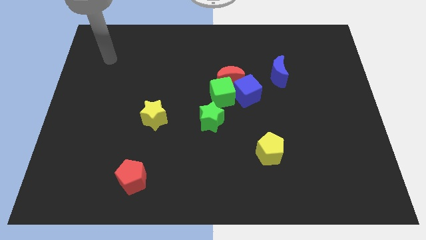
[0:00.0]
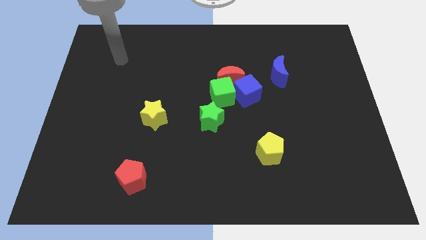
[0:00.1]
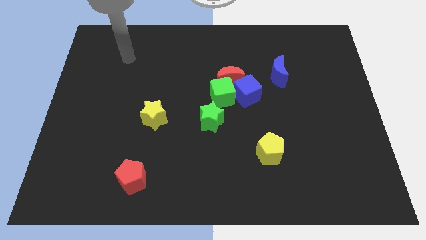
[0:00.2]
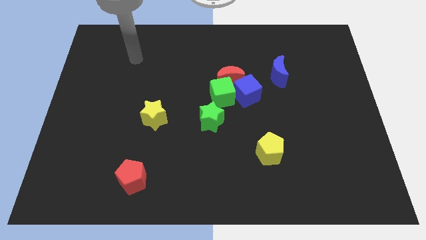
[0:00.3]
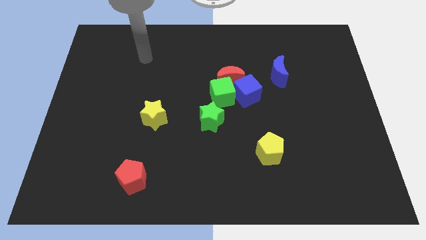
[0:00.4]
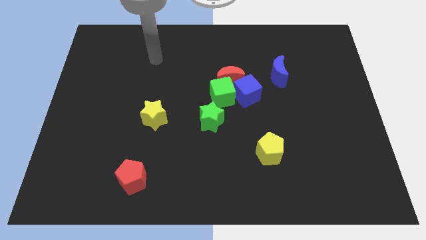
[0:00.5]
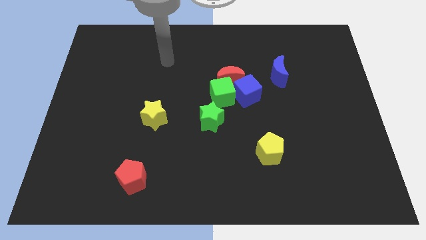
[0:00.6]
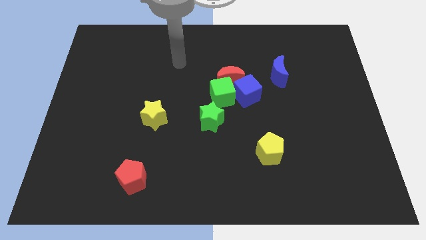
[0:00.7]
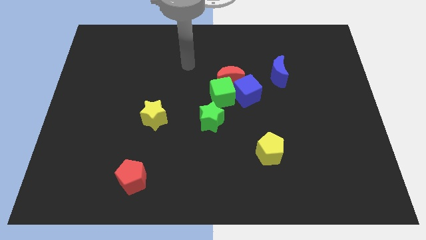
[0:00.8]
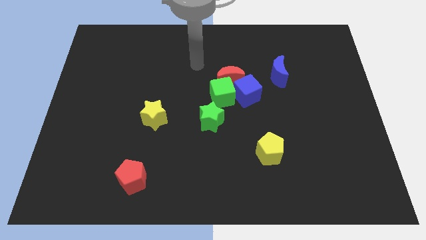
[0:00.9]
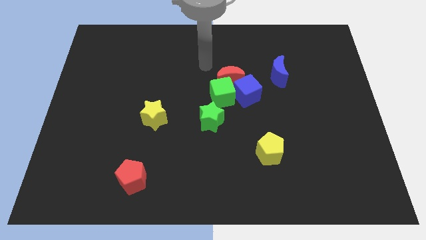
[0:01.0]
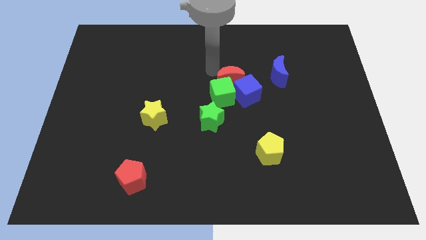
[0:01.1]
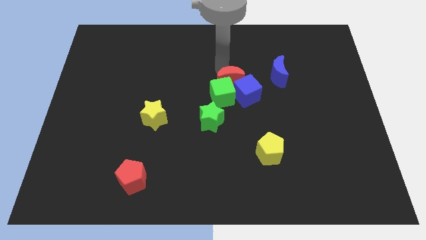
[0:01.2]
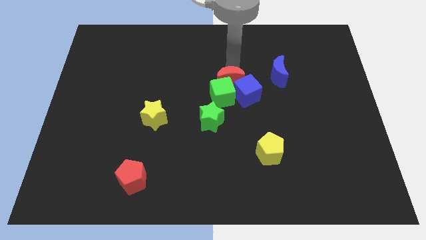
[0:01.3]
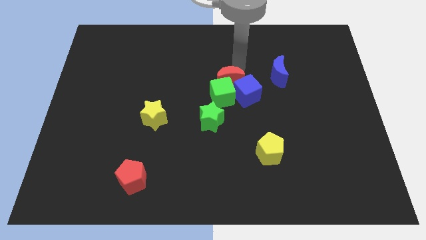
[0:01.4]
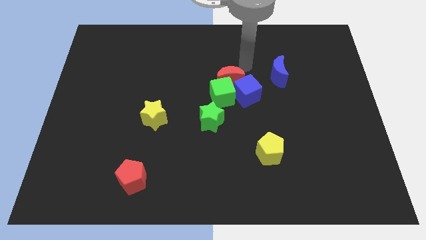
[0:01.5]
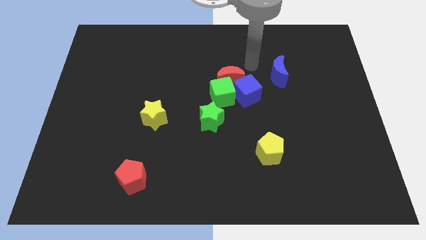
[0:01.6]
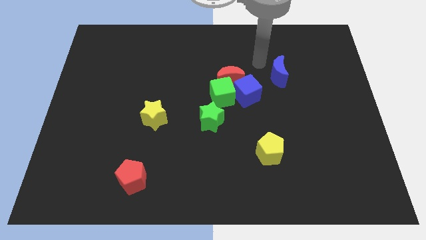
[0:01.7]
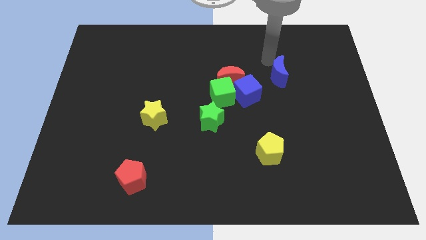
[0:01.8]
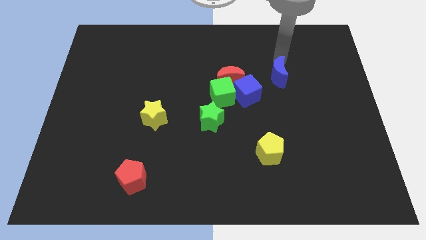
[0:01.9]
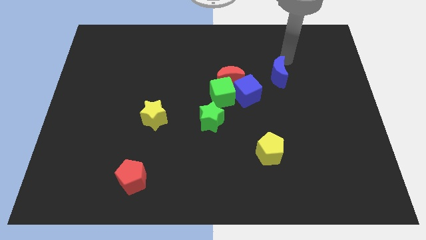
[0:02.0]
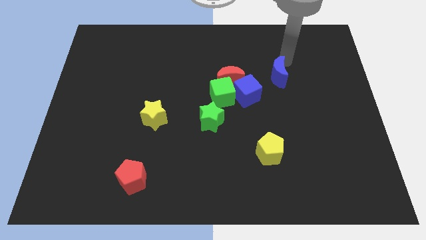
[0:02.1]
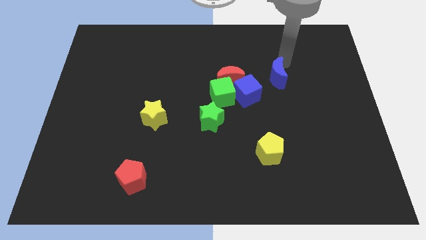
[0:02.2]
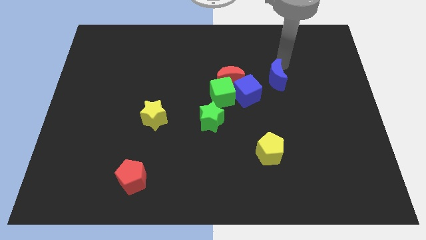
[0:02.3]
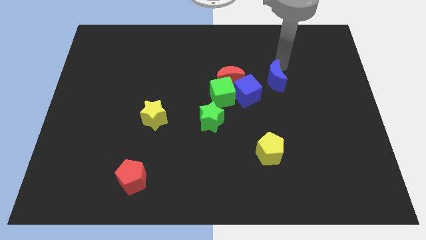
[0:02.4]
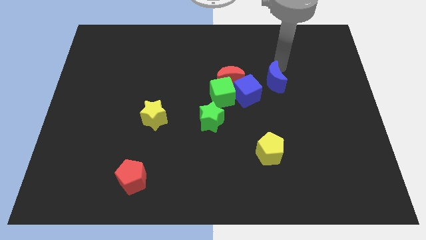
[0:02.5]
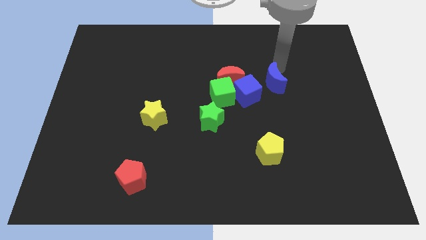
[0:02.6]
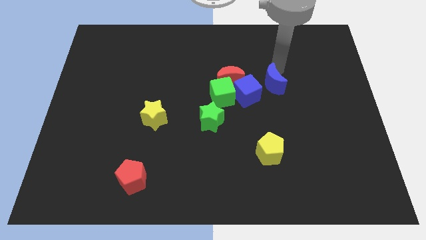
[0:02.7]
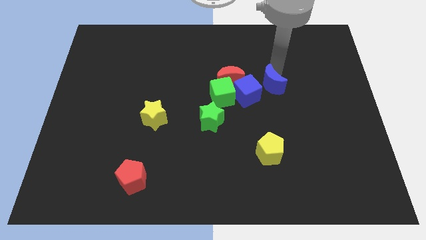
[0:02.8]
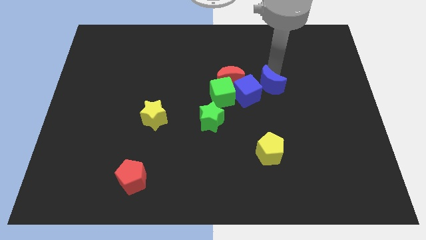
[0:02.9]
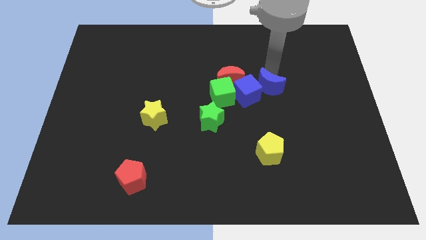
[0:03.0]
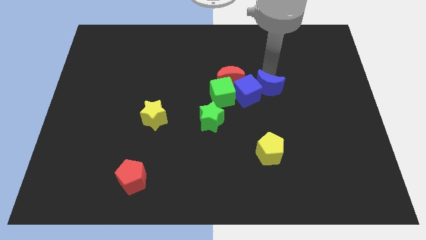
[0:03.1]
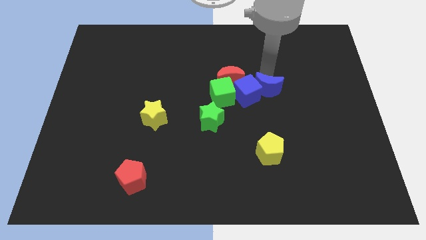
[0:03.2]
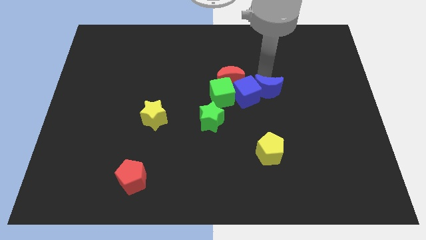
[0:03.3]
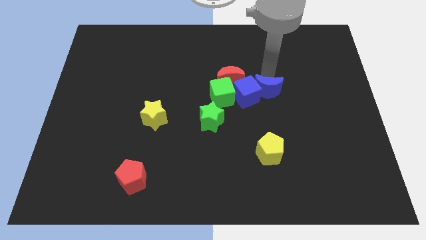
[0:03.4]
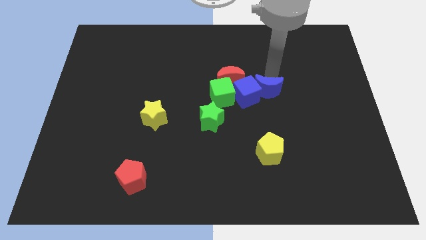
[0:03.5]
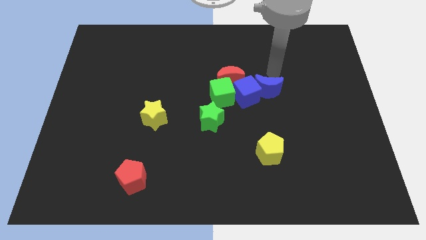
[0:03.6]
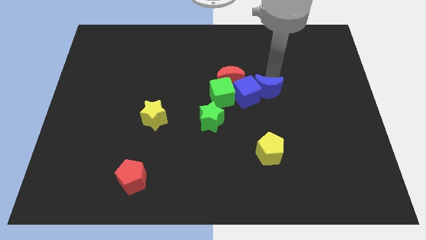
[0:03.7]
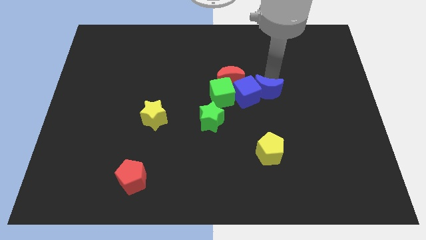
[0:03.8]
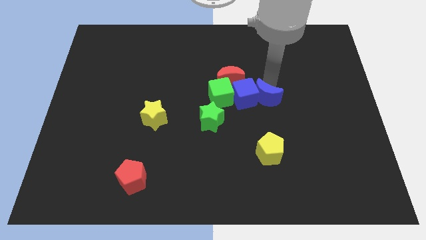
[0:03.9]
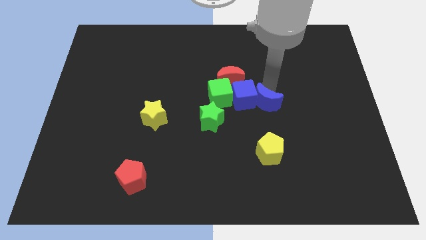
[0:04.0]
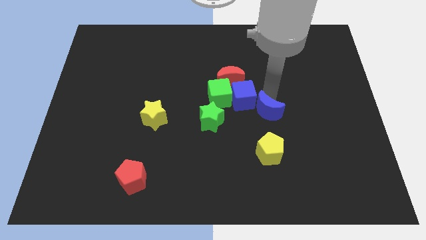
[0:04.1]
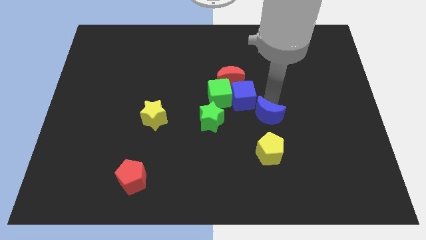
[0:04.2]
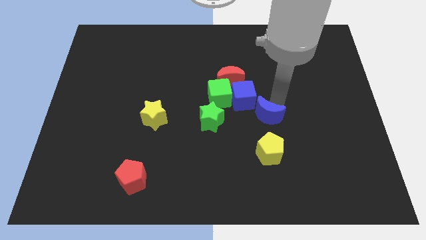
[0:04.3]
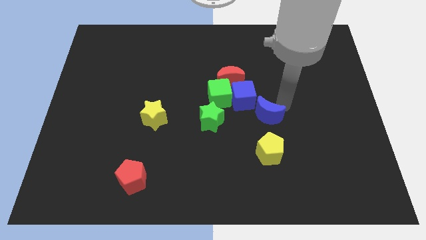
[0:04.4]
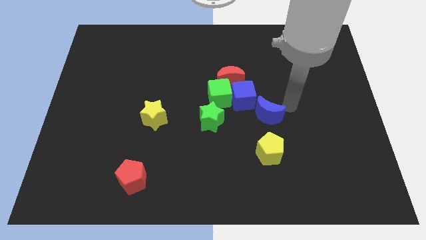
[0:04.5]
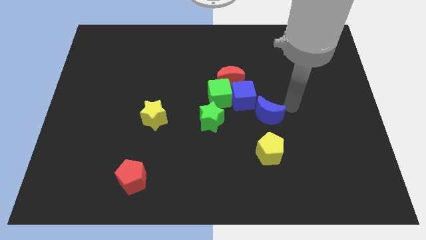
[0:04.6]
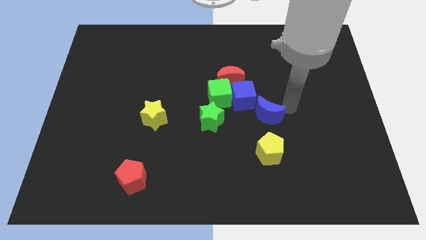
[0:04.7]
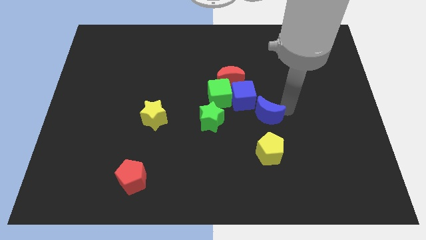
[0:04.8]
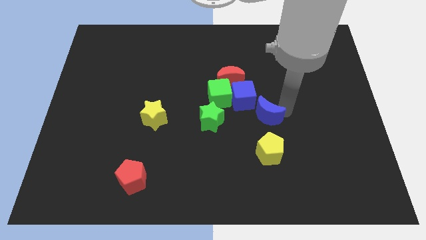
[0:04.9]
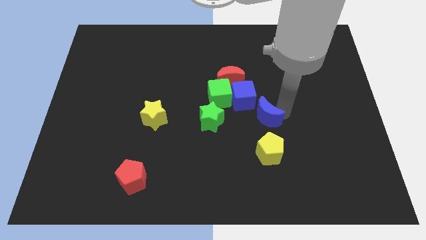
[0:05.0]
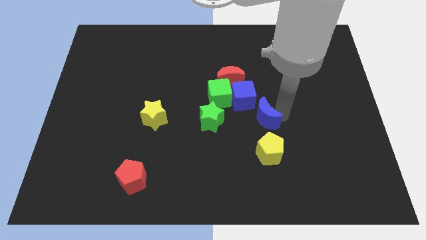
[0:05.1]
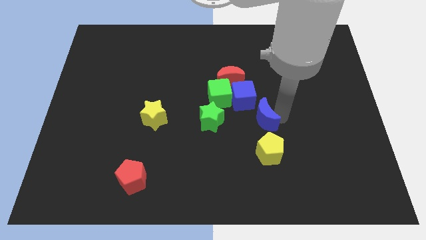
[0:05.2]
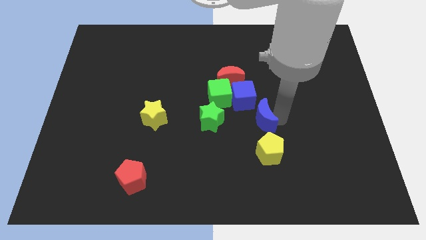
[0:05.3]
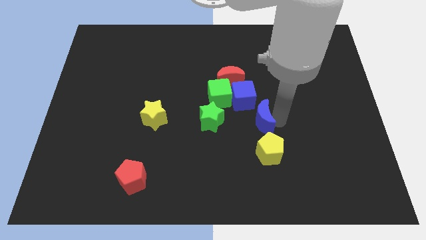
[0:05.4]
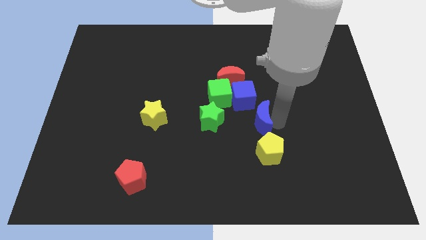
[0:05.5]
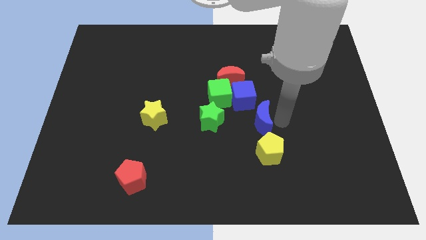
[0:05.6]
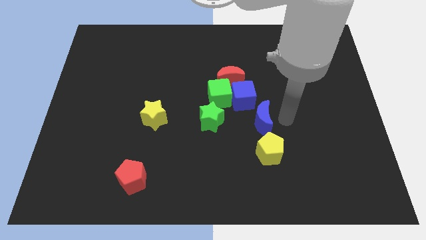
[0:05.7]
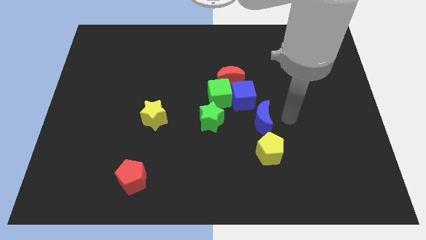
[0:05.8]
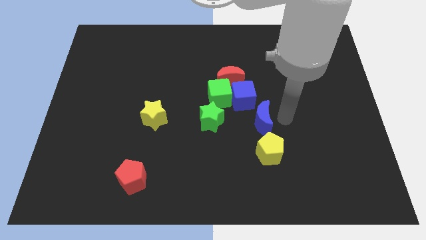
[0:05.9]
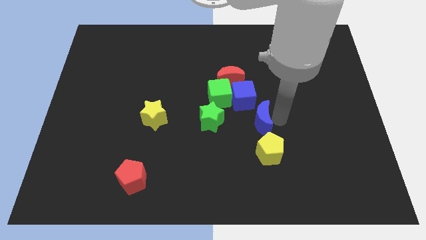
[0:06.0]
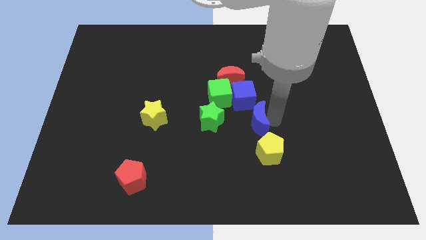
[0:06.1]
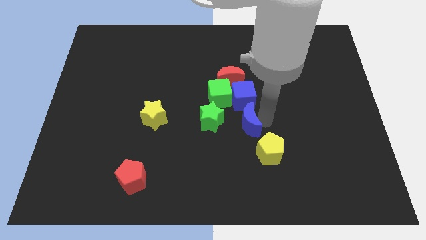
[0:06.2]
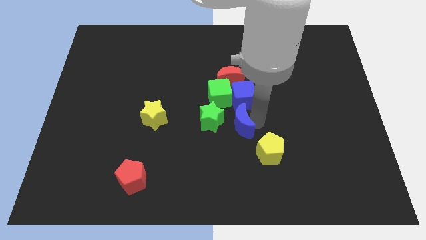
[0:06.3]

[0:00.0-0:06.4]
slide the blue moon below the green cube

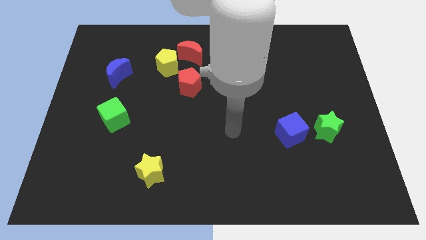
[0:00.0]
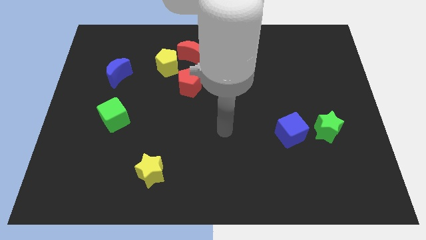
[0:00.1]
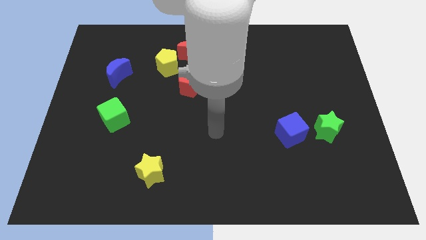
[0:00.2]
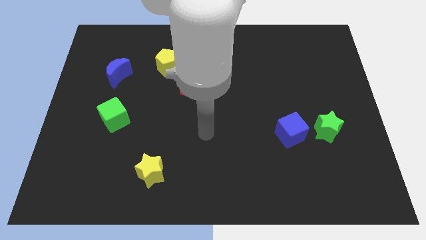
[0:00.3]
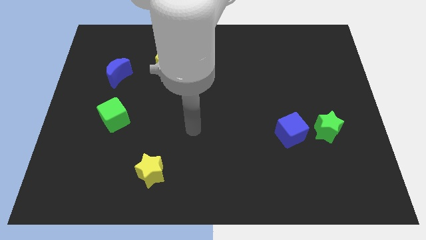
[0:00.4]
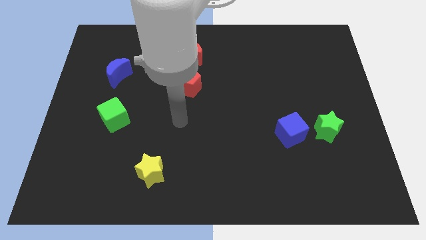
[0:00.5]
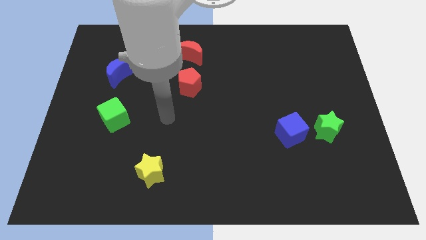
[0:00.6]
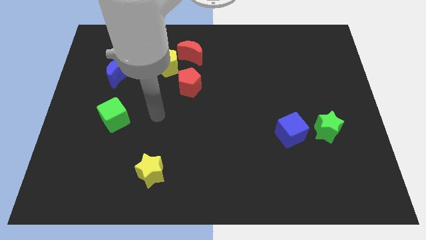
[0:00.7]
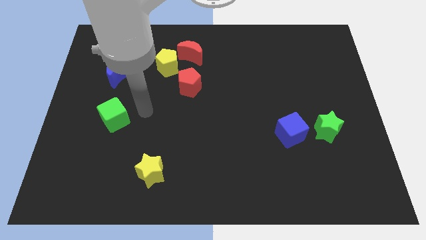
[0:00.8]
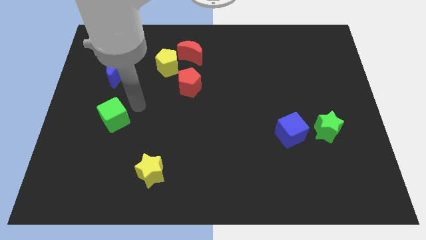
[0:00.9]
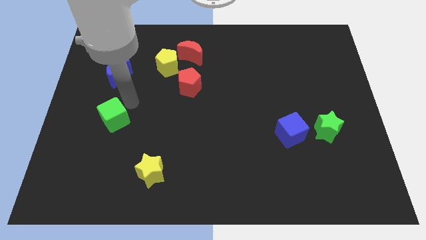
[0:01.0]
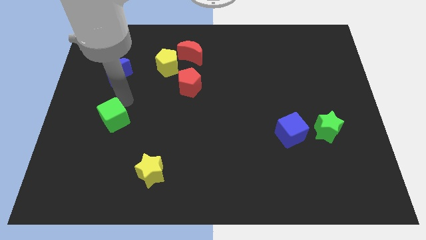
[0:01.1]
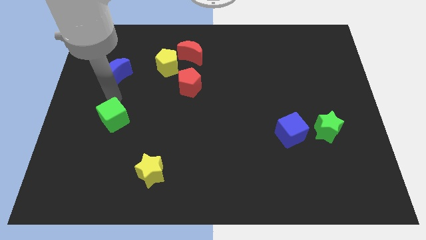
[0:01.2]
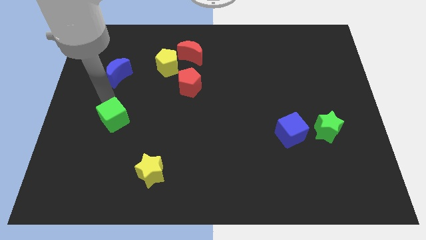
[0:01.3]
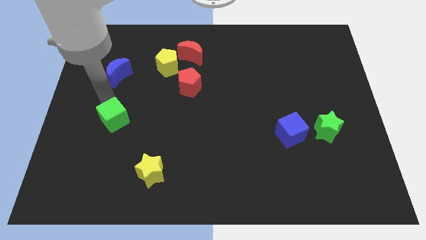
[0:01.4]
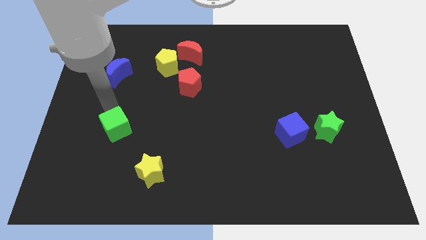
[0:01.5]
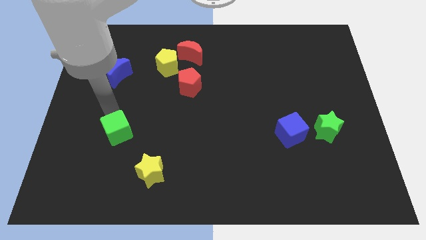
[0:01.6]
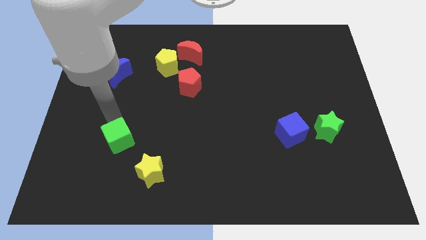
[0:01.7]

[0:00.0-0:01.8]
push the green cube to the top left side of the yellow star
